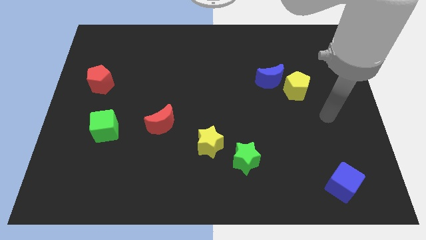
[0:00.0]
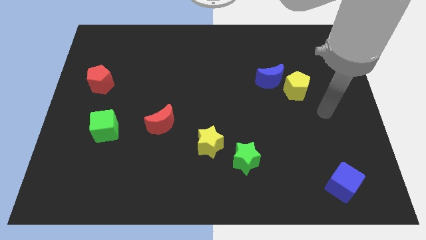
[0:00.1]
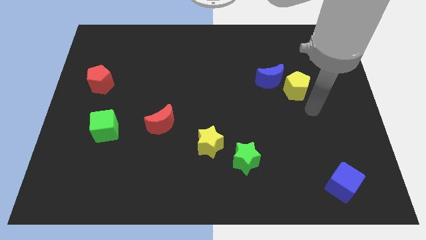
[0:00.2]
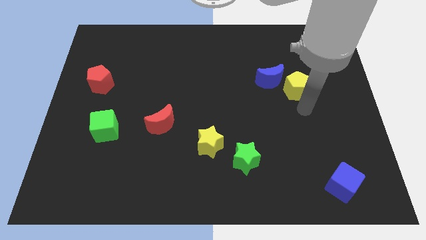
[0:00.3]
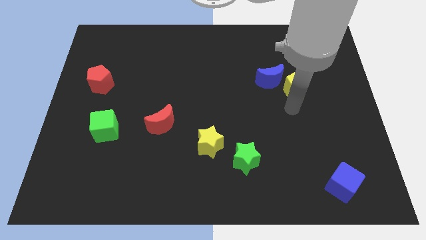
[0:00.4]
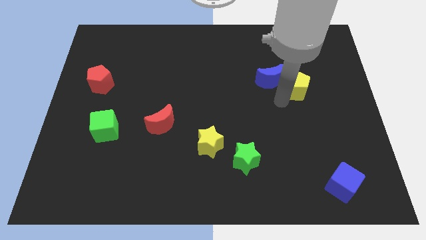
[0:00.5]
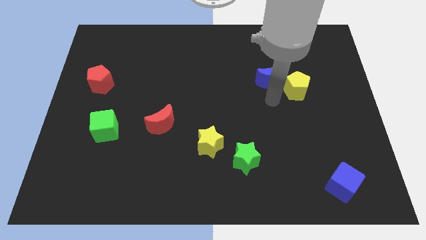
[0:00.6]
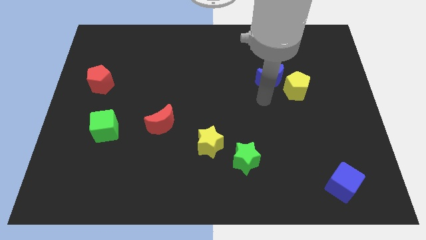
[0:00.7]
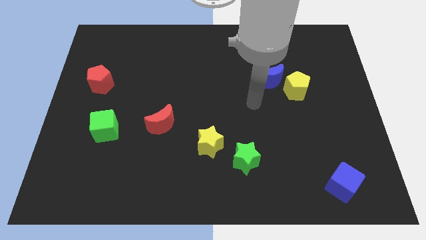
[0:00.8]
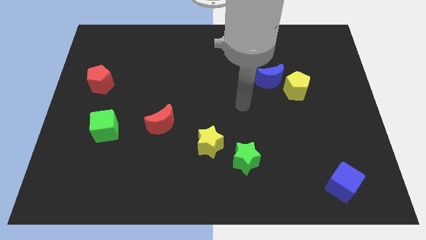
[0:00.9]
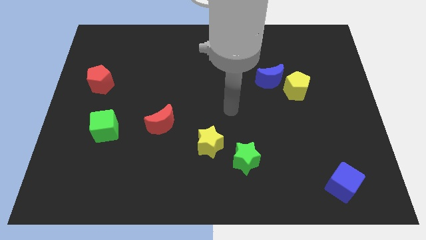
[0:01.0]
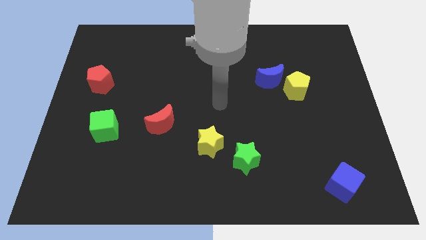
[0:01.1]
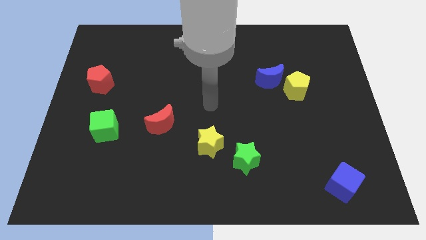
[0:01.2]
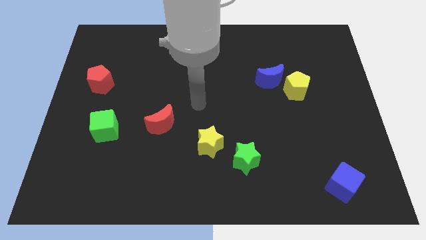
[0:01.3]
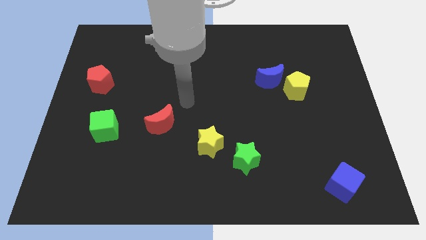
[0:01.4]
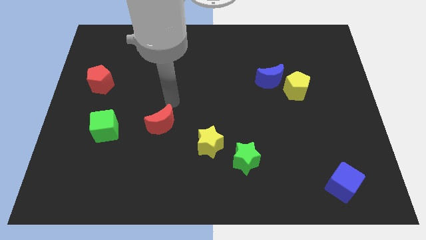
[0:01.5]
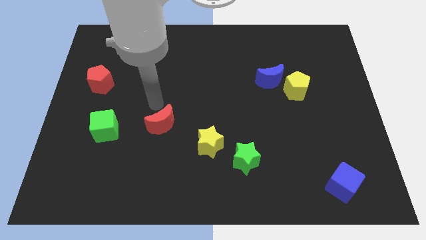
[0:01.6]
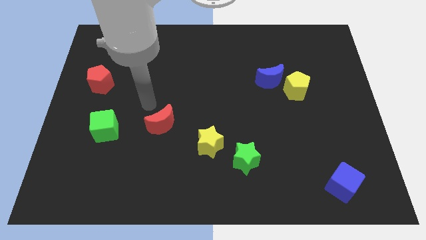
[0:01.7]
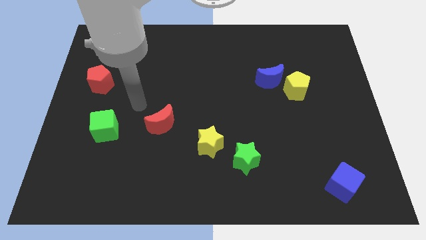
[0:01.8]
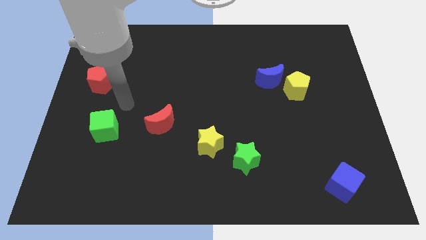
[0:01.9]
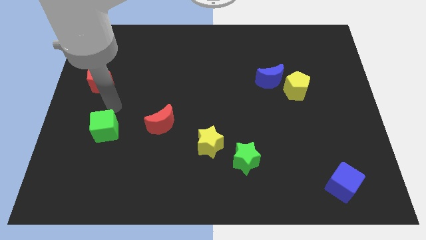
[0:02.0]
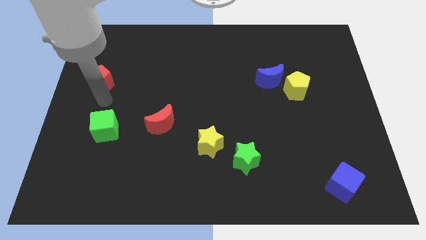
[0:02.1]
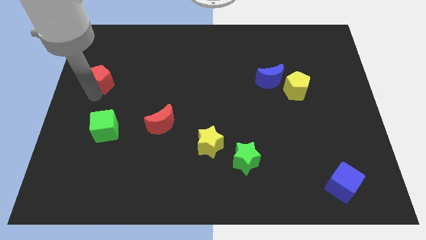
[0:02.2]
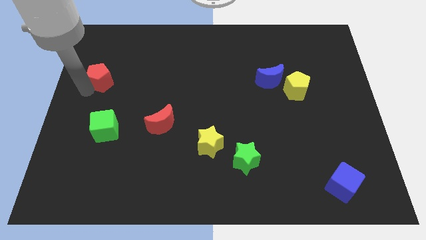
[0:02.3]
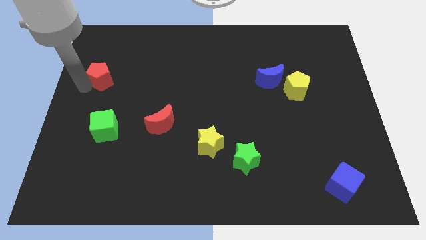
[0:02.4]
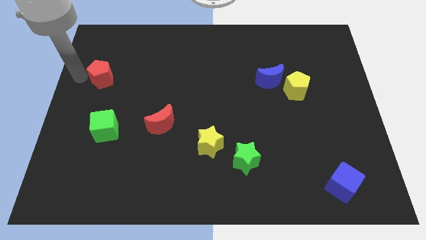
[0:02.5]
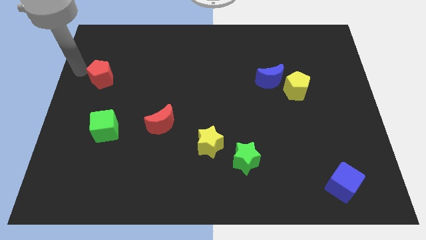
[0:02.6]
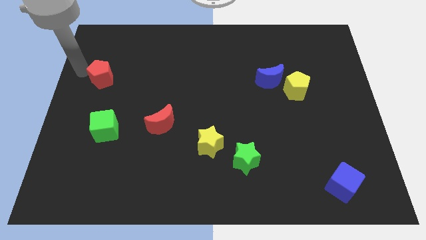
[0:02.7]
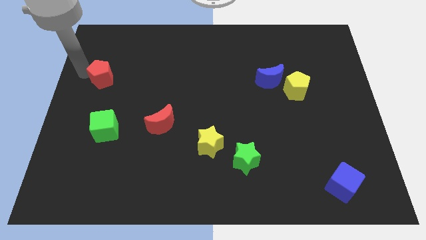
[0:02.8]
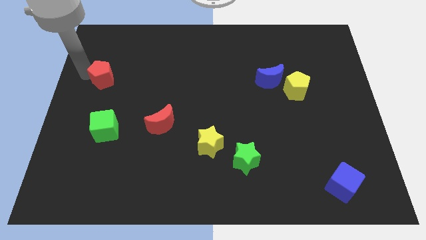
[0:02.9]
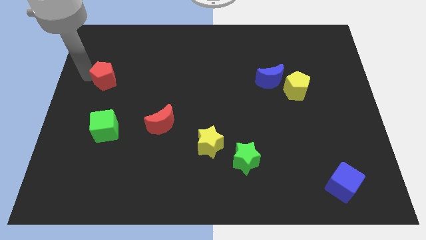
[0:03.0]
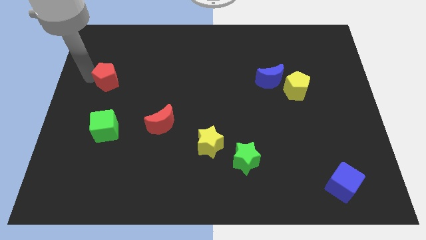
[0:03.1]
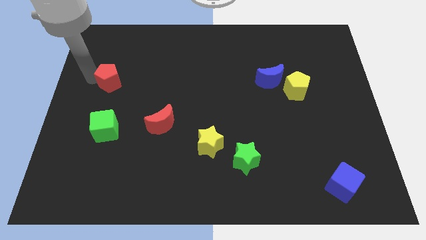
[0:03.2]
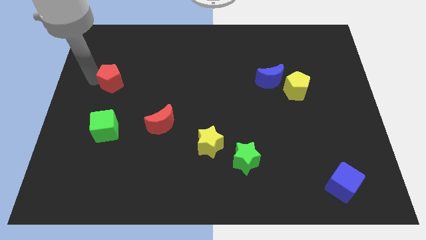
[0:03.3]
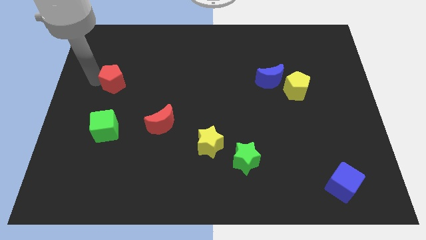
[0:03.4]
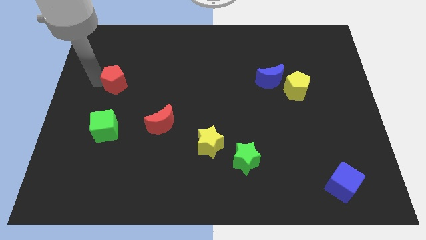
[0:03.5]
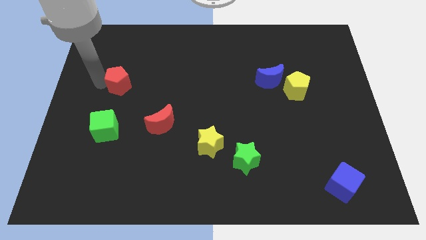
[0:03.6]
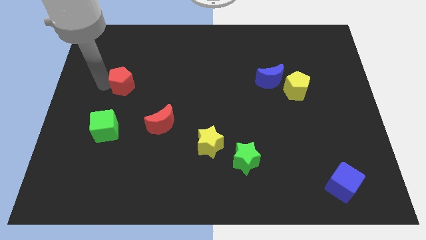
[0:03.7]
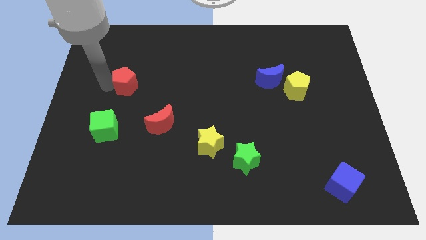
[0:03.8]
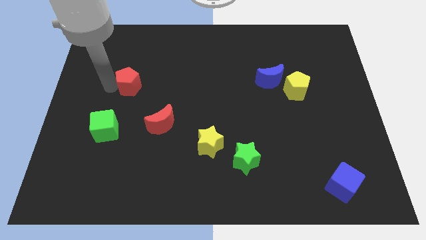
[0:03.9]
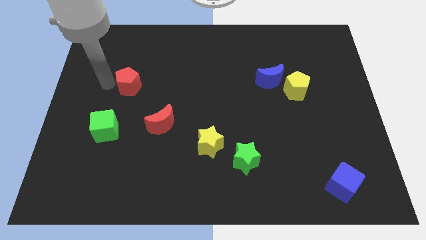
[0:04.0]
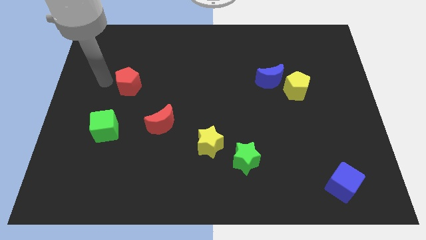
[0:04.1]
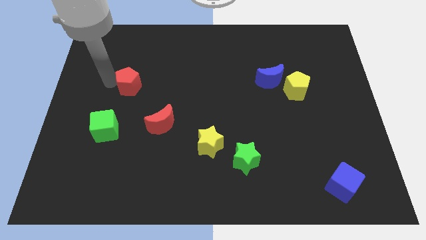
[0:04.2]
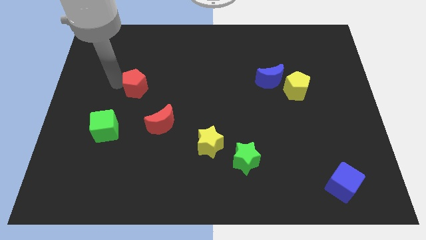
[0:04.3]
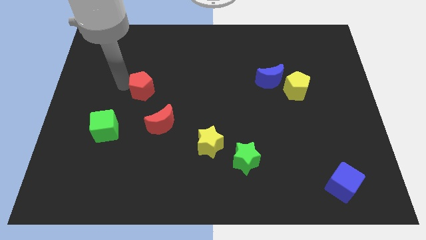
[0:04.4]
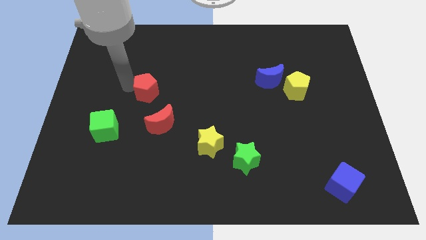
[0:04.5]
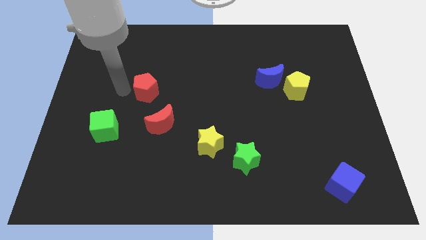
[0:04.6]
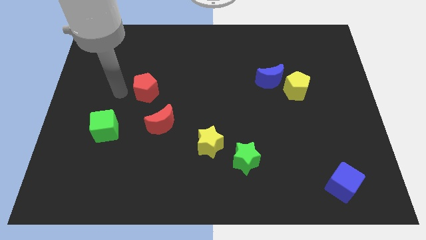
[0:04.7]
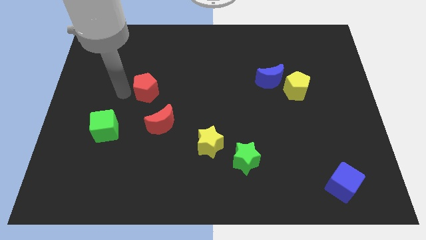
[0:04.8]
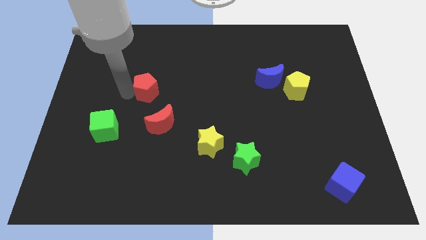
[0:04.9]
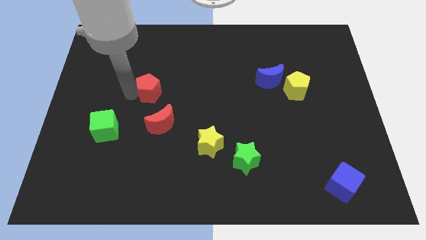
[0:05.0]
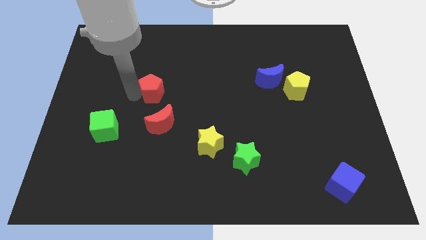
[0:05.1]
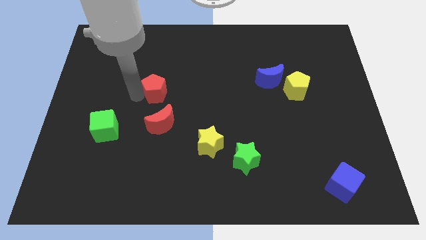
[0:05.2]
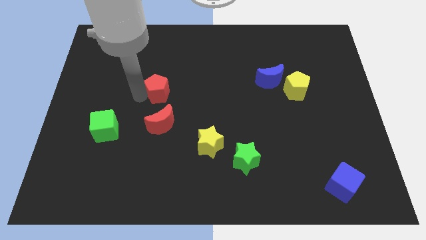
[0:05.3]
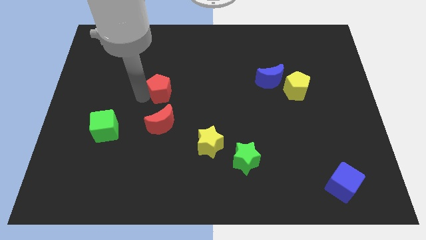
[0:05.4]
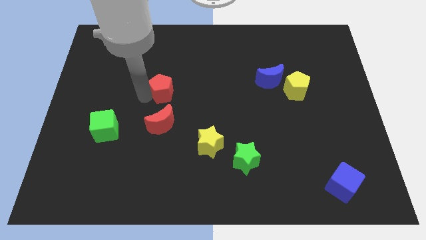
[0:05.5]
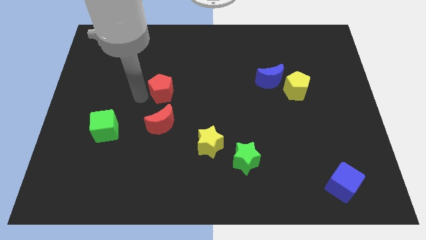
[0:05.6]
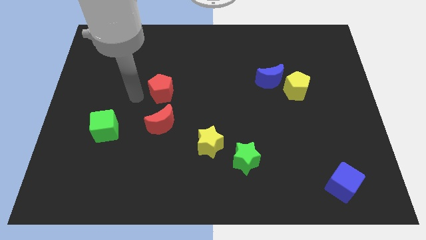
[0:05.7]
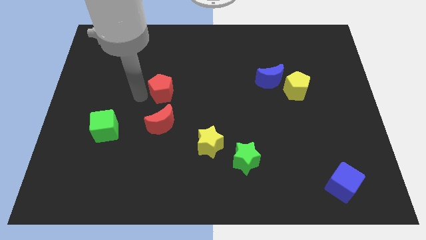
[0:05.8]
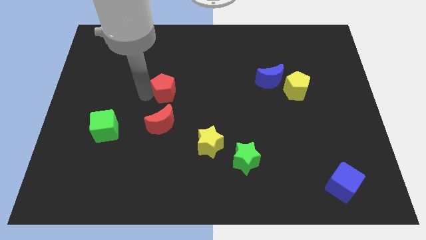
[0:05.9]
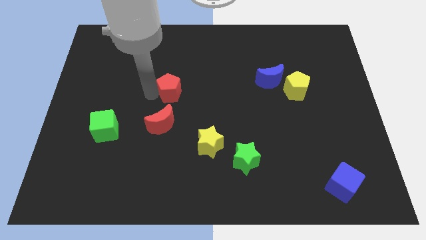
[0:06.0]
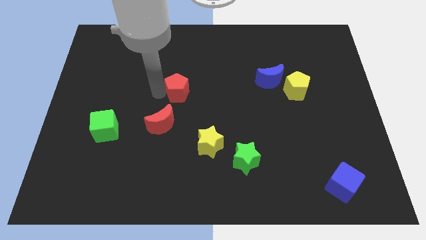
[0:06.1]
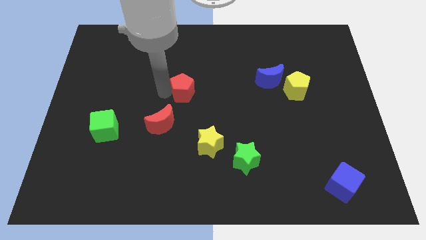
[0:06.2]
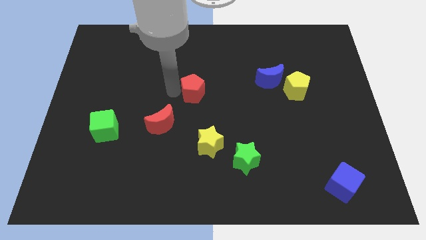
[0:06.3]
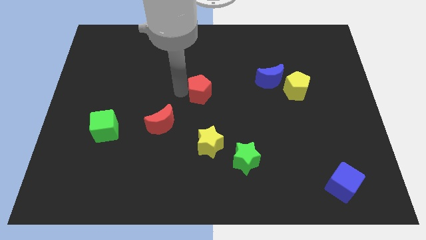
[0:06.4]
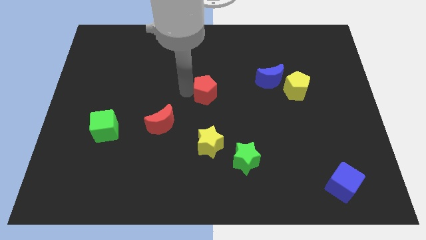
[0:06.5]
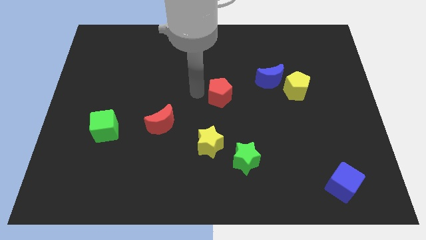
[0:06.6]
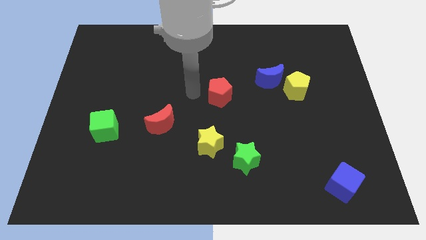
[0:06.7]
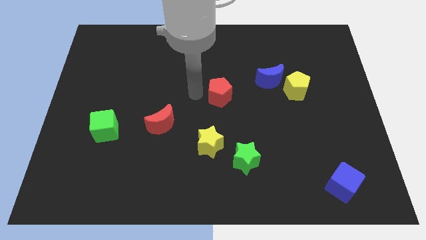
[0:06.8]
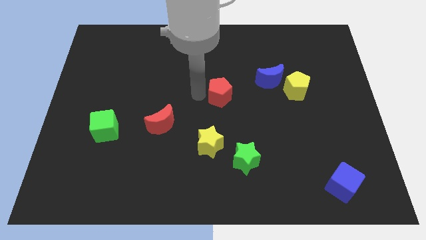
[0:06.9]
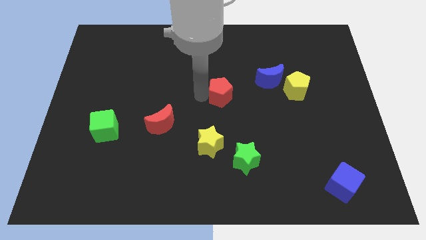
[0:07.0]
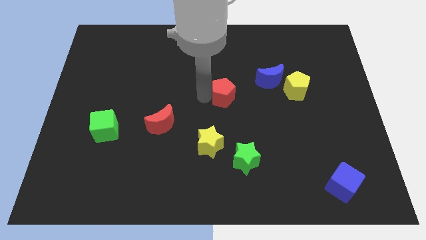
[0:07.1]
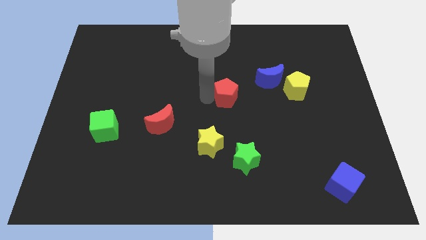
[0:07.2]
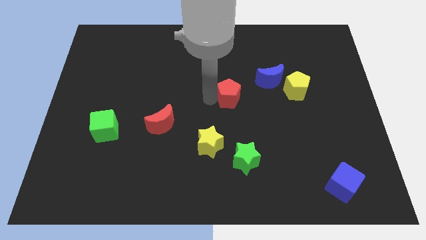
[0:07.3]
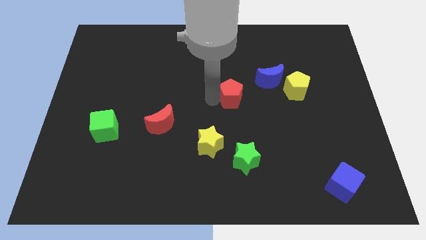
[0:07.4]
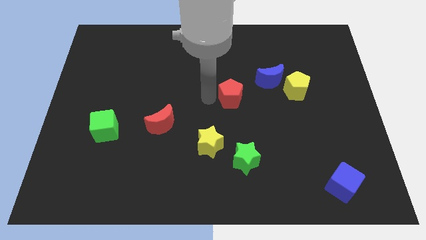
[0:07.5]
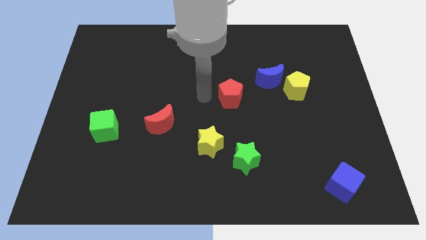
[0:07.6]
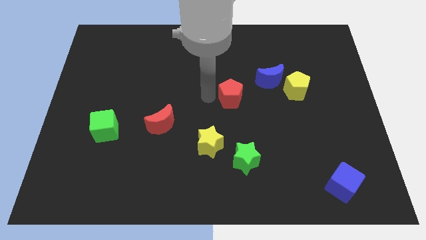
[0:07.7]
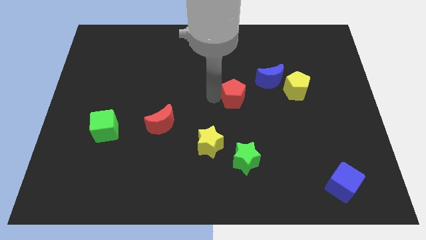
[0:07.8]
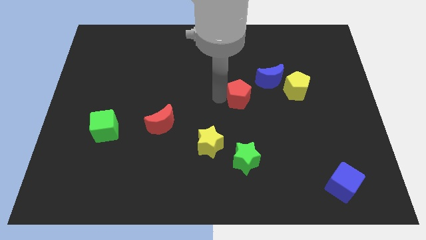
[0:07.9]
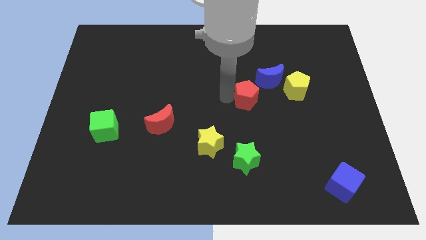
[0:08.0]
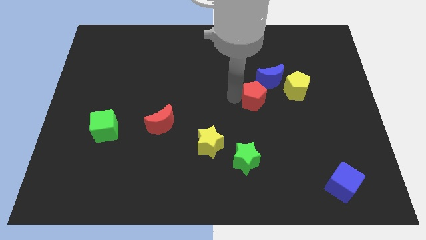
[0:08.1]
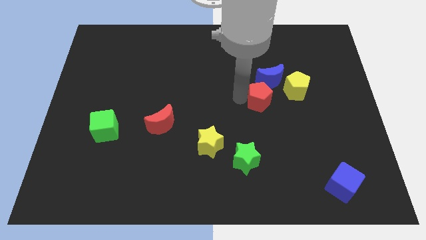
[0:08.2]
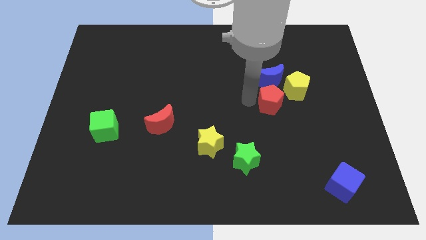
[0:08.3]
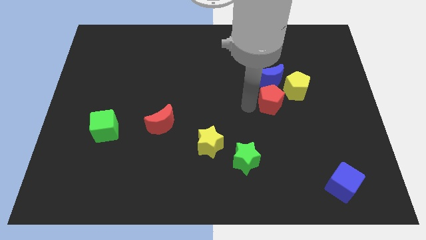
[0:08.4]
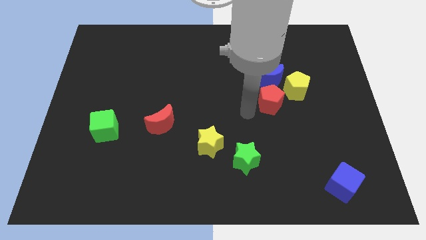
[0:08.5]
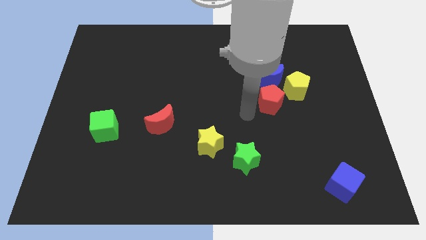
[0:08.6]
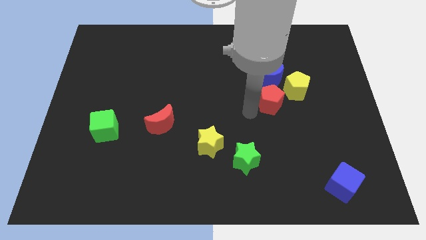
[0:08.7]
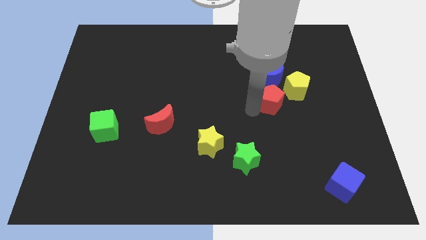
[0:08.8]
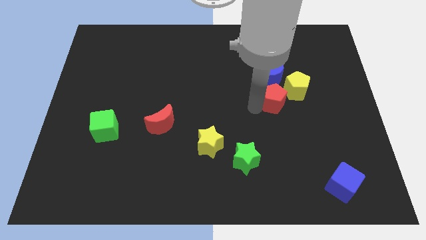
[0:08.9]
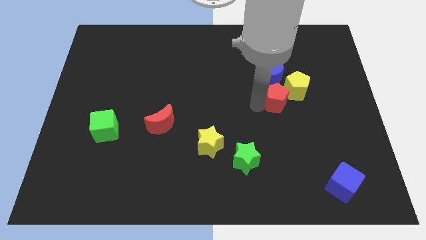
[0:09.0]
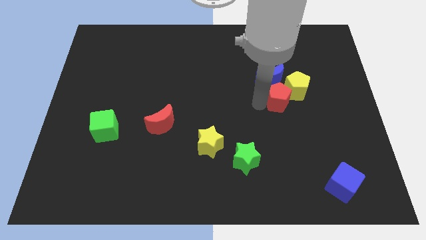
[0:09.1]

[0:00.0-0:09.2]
slide the red pentagon next to the yellow pentagon
